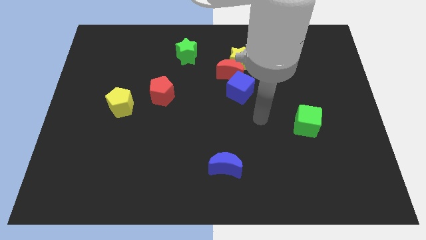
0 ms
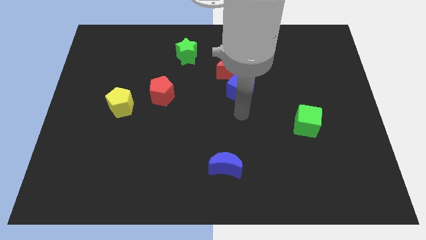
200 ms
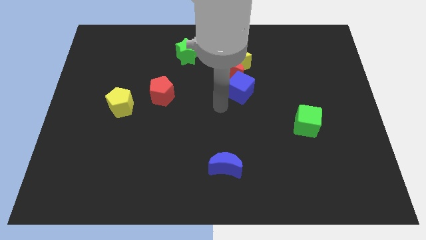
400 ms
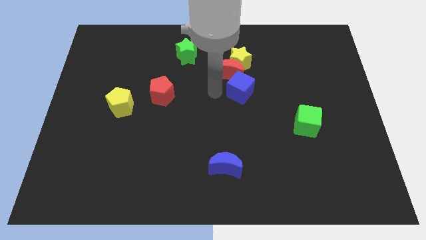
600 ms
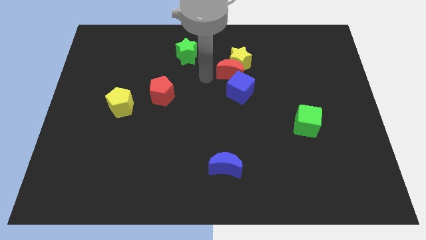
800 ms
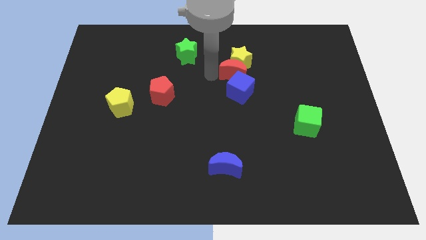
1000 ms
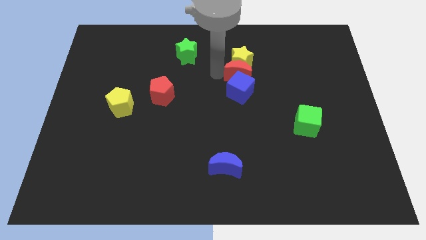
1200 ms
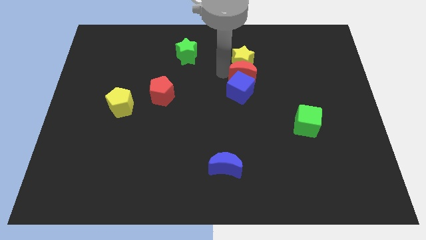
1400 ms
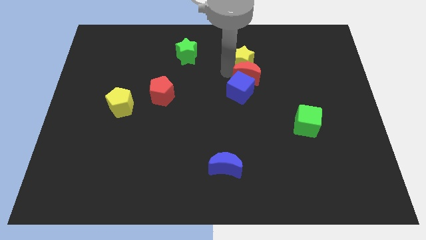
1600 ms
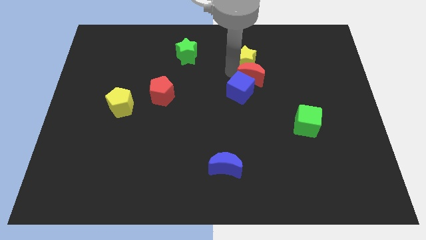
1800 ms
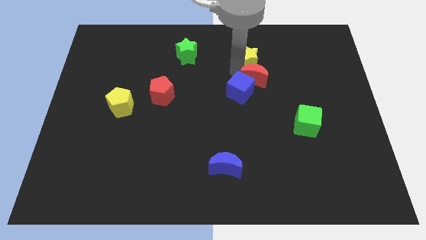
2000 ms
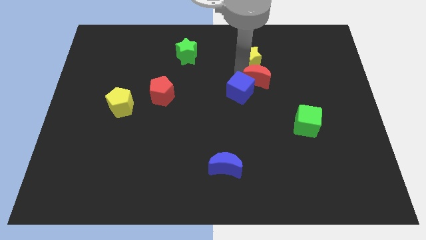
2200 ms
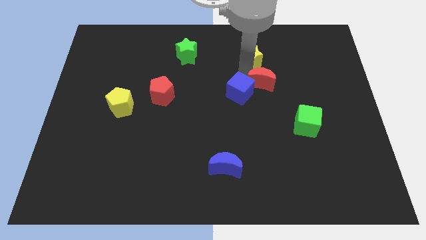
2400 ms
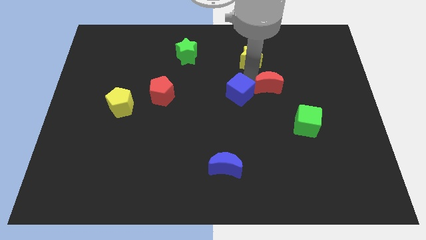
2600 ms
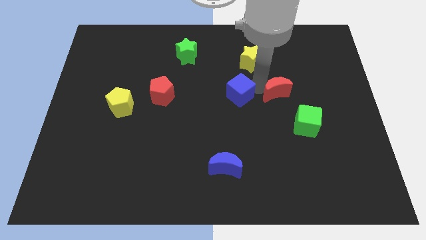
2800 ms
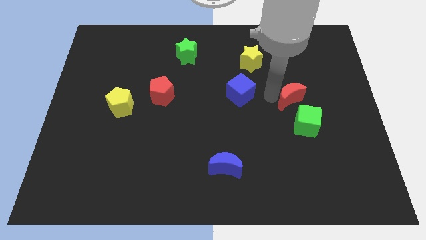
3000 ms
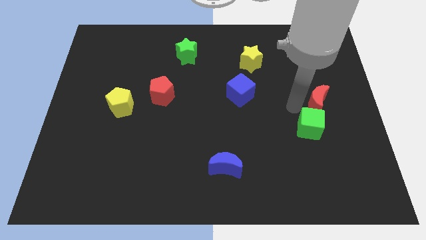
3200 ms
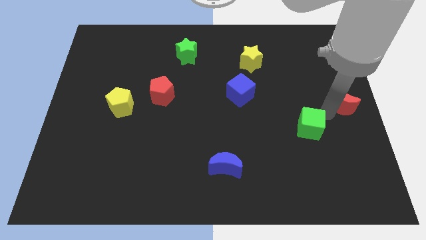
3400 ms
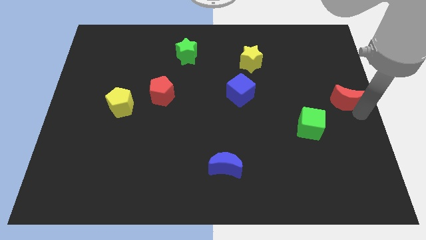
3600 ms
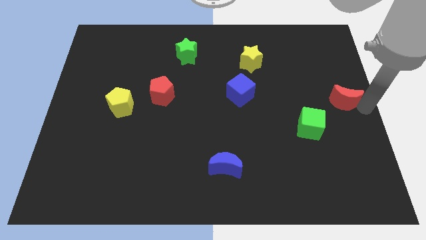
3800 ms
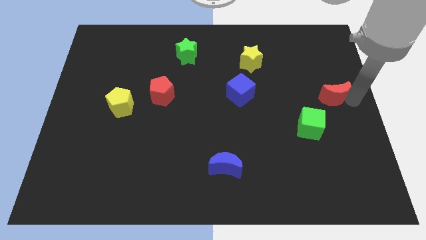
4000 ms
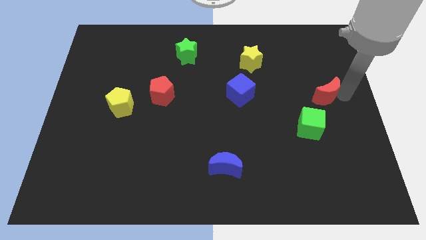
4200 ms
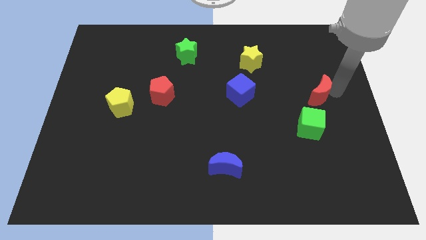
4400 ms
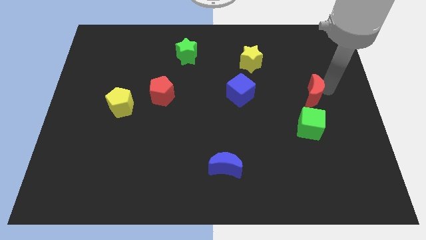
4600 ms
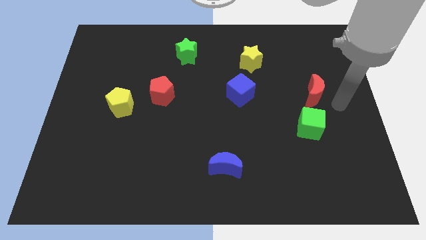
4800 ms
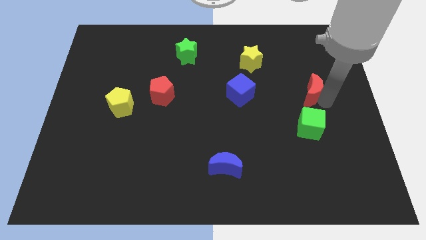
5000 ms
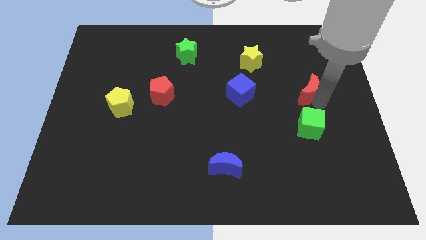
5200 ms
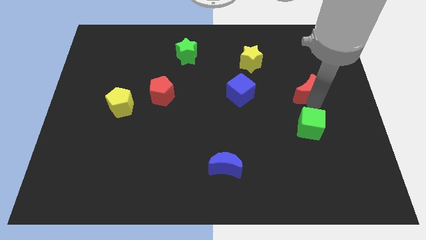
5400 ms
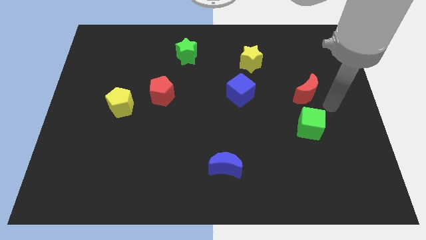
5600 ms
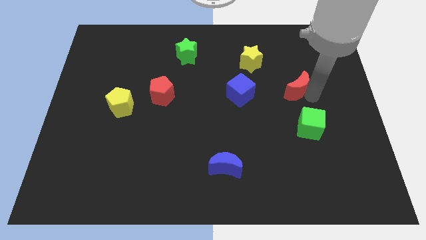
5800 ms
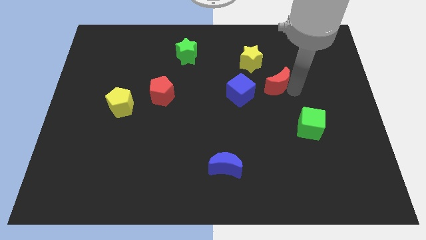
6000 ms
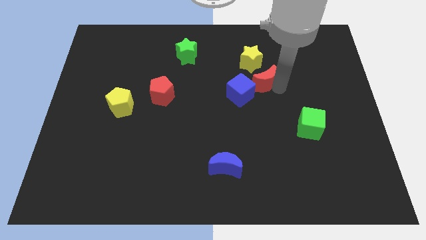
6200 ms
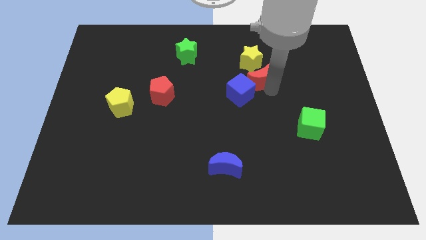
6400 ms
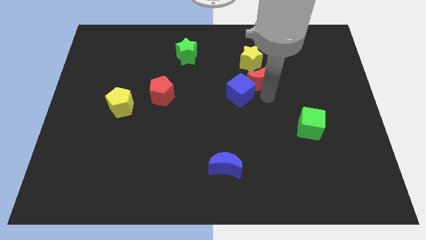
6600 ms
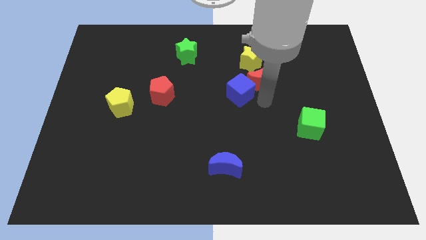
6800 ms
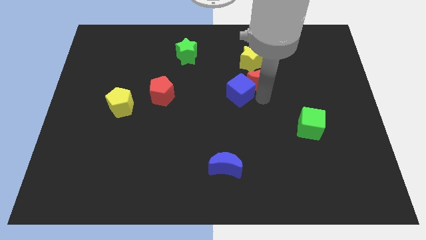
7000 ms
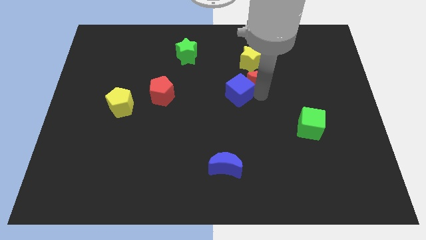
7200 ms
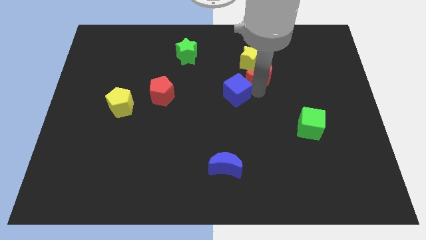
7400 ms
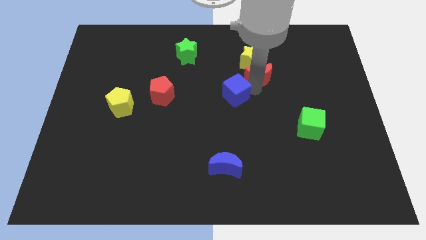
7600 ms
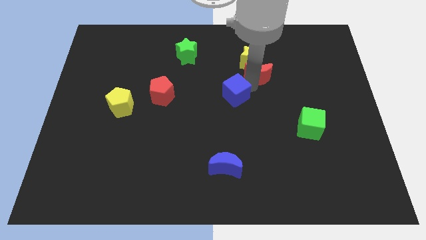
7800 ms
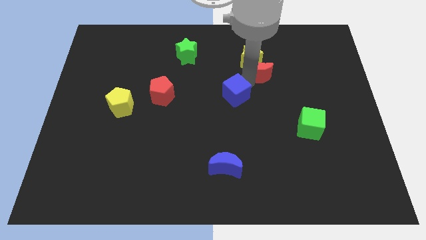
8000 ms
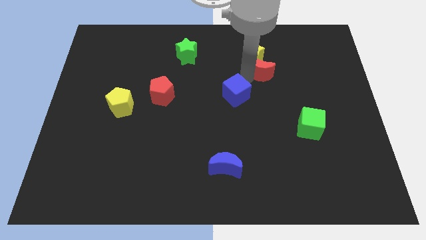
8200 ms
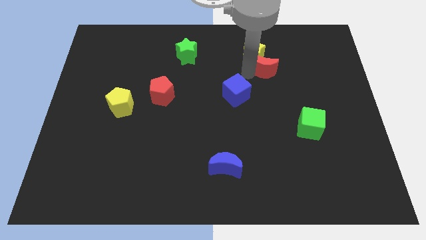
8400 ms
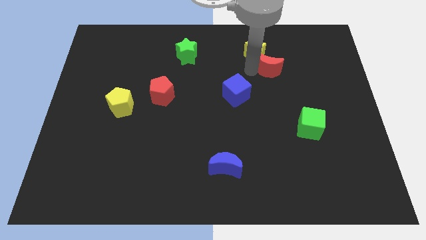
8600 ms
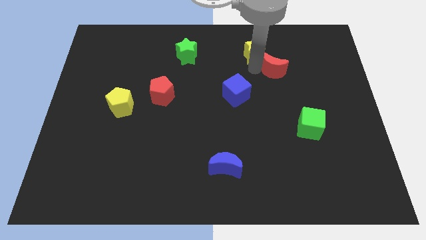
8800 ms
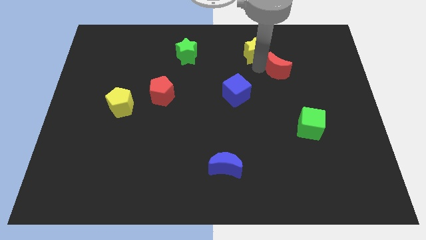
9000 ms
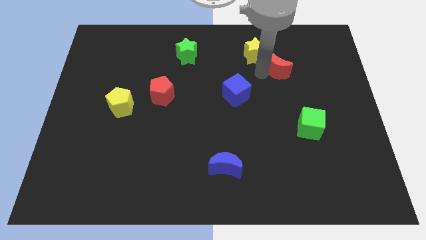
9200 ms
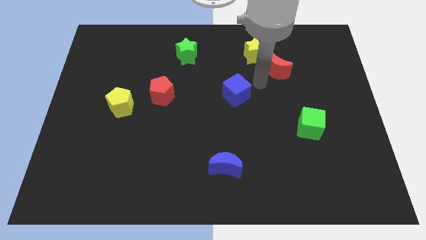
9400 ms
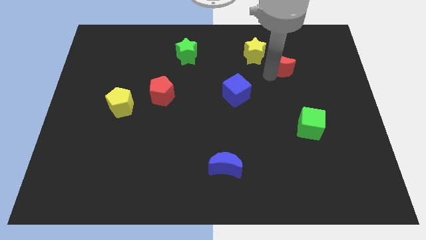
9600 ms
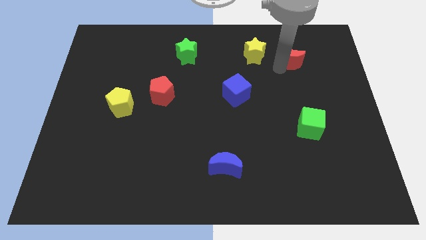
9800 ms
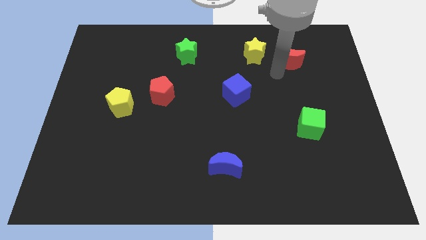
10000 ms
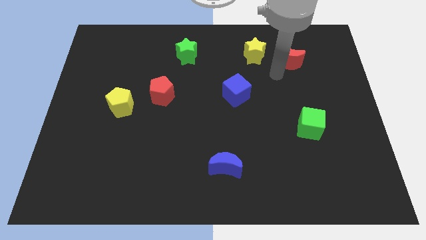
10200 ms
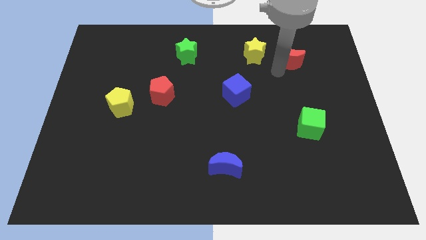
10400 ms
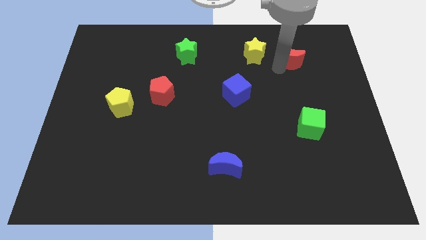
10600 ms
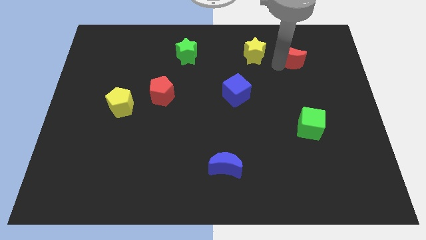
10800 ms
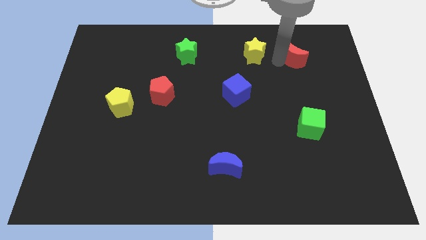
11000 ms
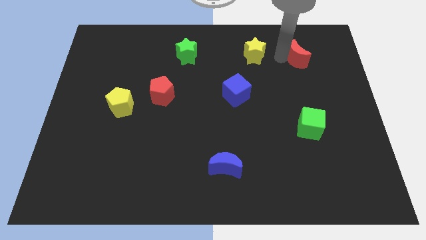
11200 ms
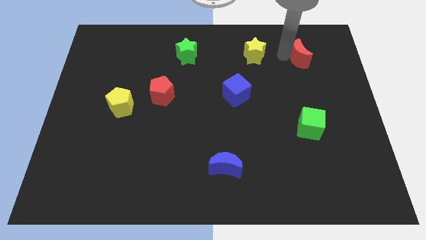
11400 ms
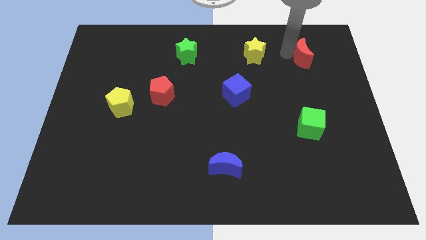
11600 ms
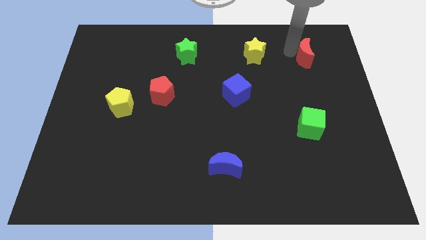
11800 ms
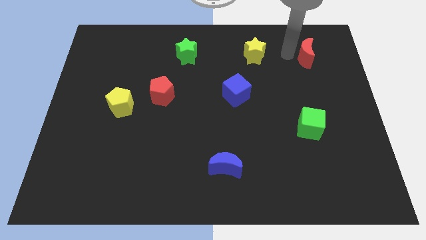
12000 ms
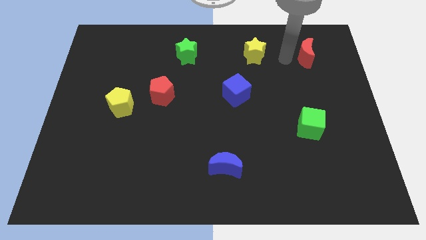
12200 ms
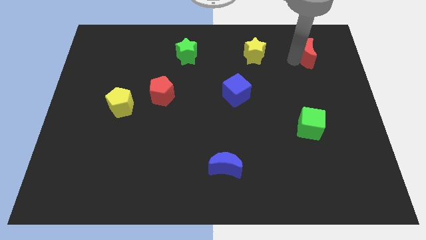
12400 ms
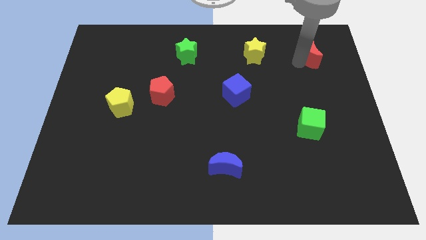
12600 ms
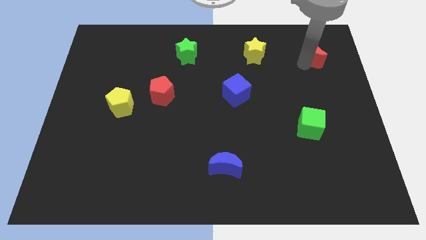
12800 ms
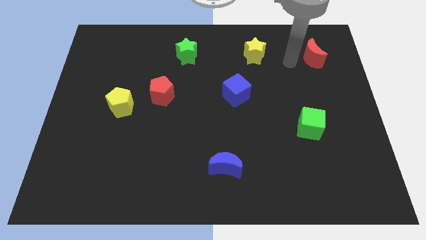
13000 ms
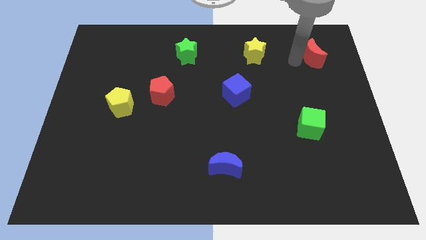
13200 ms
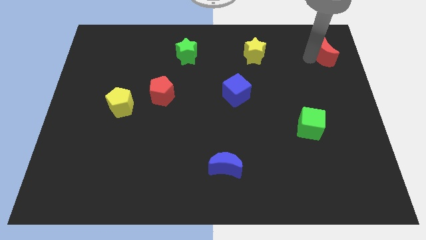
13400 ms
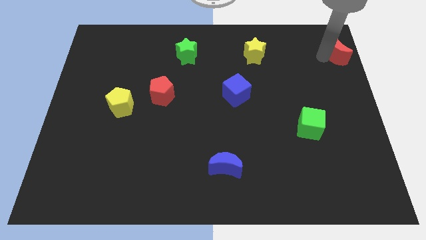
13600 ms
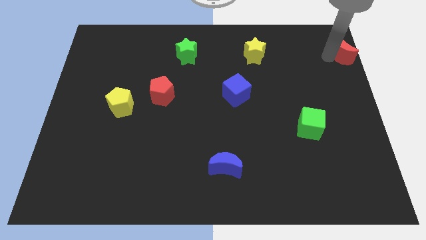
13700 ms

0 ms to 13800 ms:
slide the red moon to the top right of the board

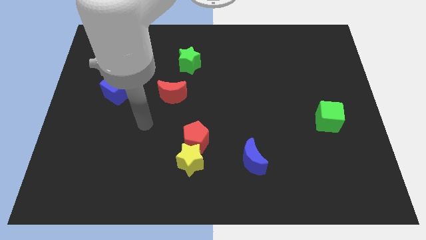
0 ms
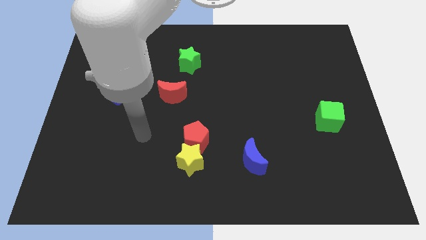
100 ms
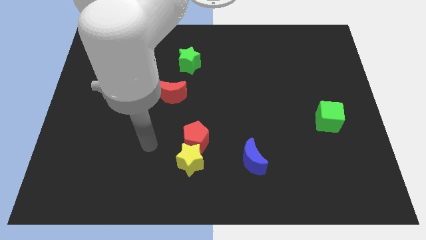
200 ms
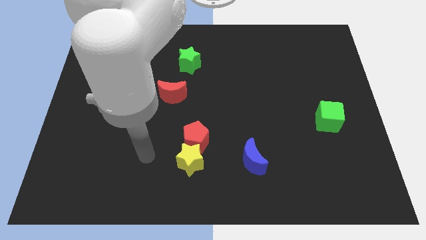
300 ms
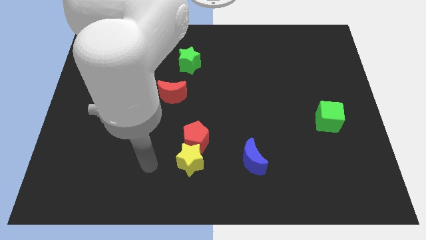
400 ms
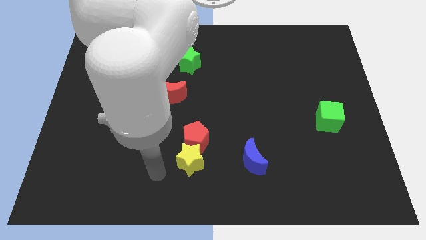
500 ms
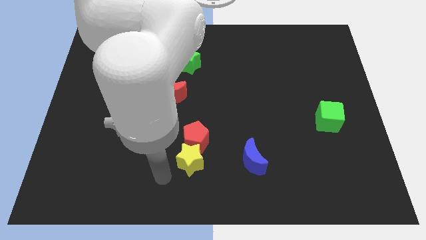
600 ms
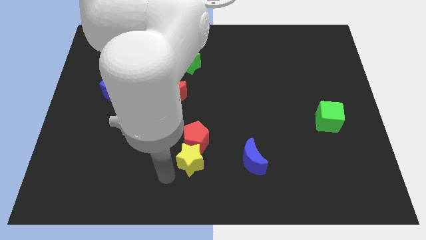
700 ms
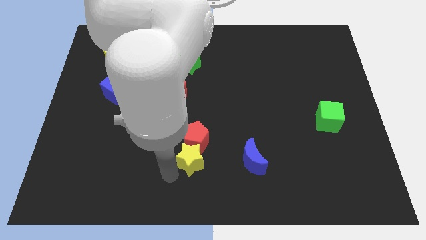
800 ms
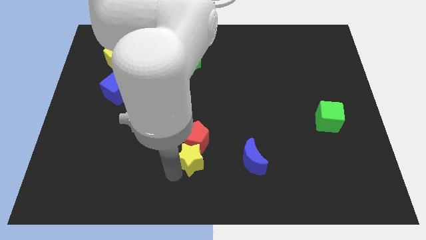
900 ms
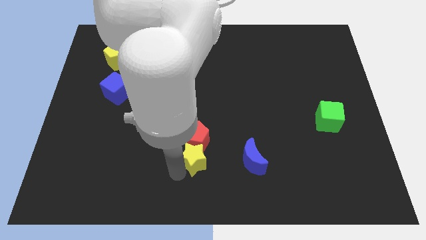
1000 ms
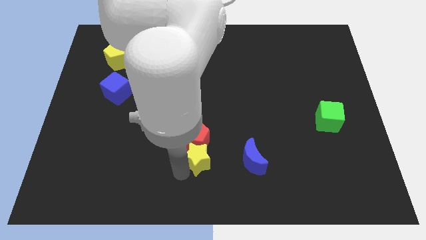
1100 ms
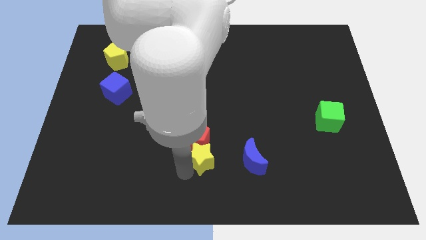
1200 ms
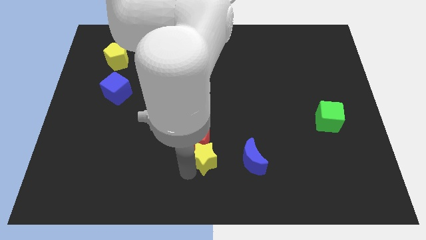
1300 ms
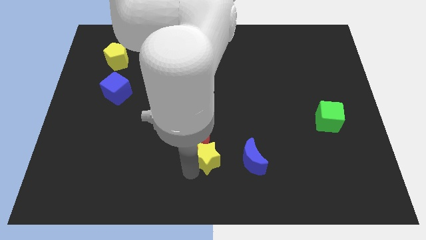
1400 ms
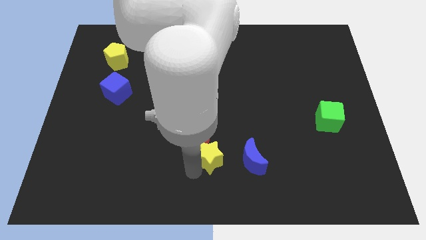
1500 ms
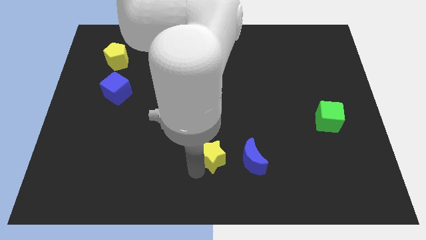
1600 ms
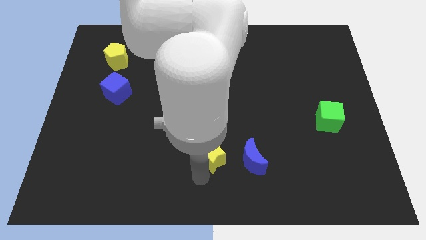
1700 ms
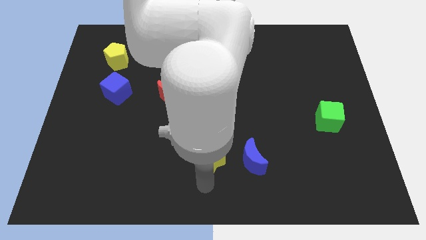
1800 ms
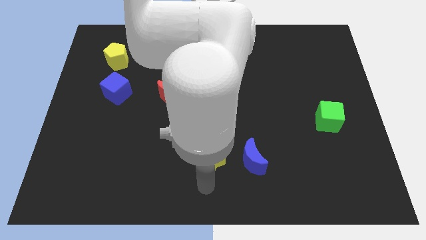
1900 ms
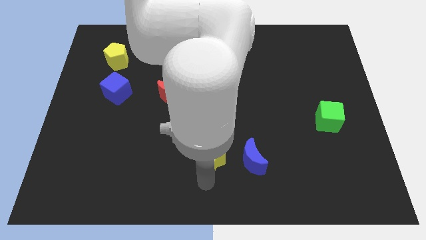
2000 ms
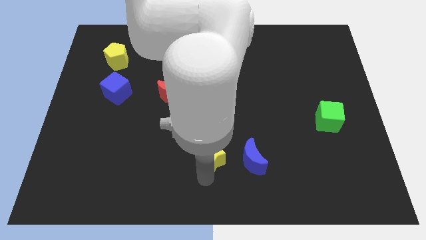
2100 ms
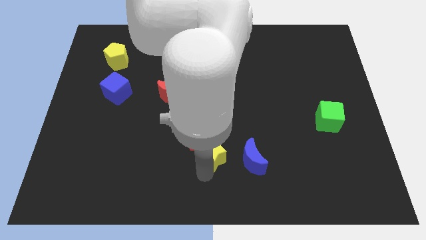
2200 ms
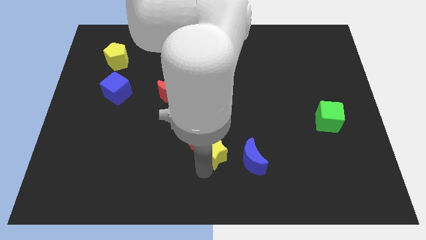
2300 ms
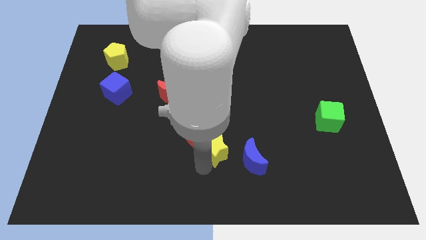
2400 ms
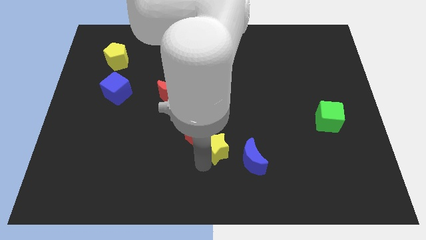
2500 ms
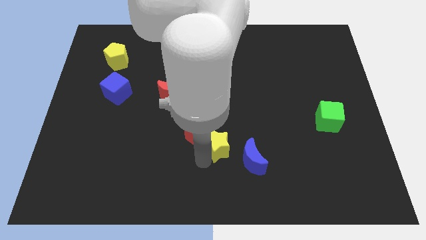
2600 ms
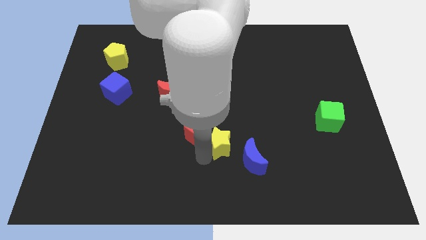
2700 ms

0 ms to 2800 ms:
move the yellow star to the middle
